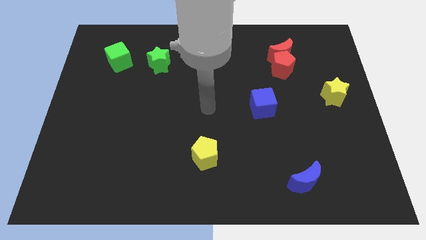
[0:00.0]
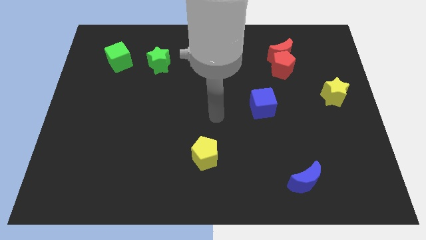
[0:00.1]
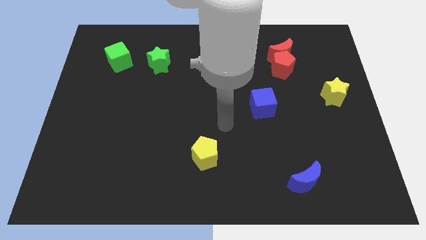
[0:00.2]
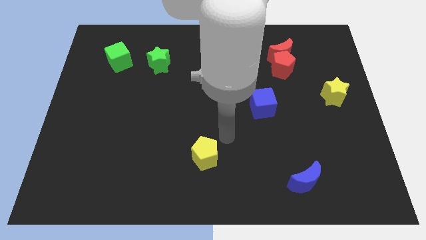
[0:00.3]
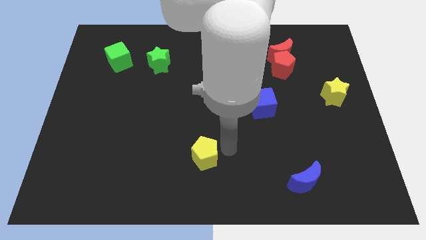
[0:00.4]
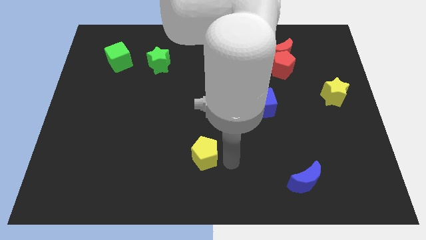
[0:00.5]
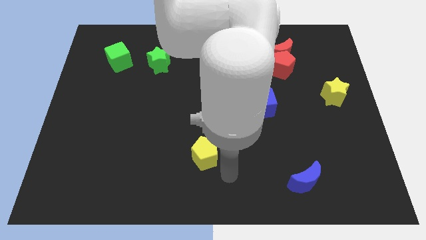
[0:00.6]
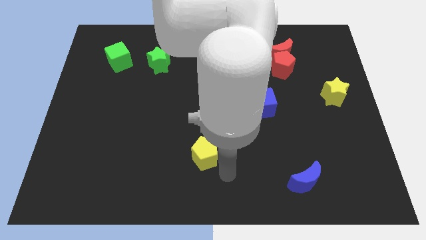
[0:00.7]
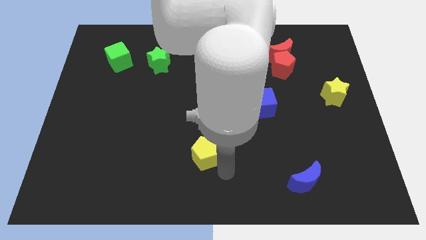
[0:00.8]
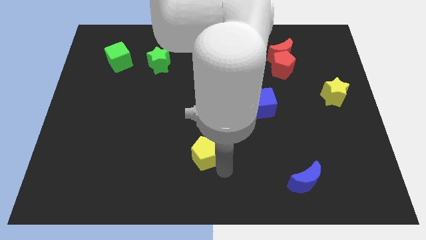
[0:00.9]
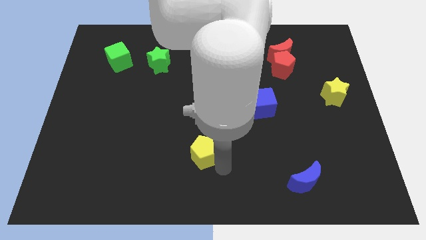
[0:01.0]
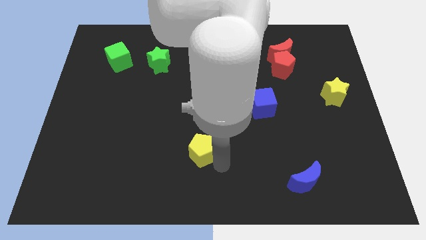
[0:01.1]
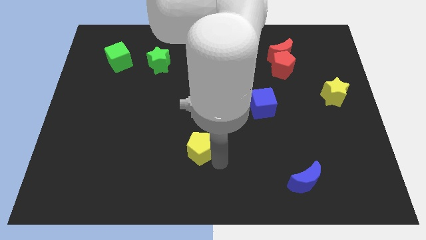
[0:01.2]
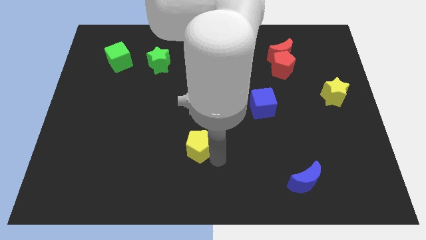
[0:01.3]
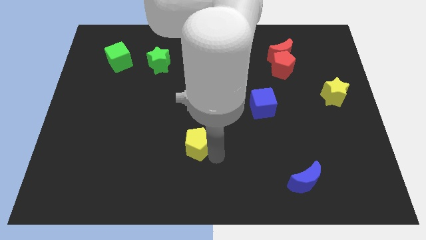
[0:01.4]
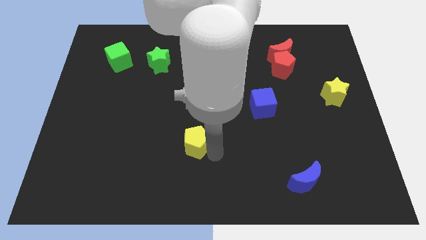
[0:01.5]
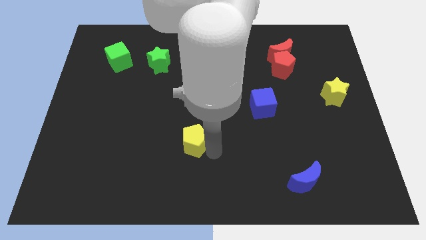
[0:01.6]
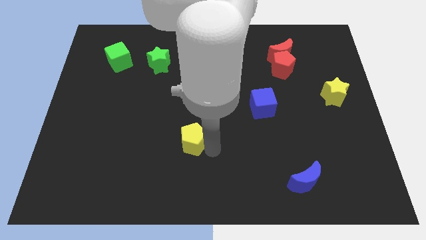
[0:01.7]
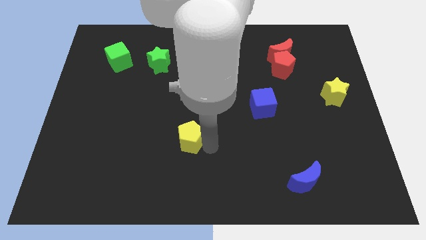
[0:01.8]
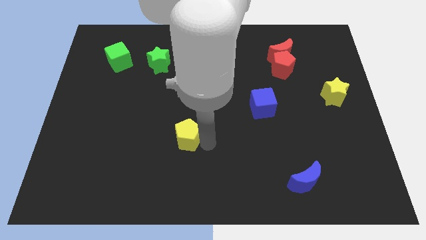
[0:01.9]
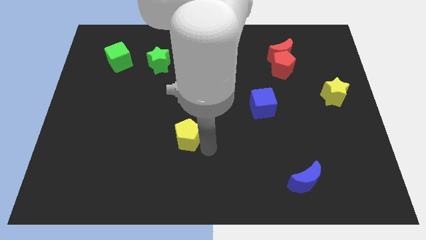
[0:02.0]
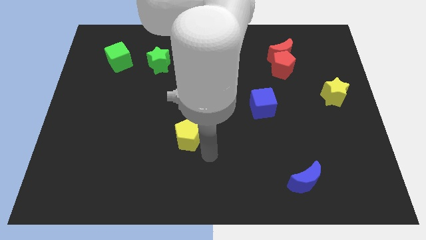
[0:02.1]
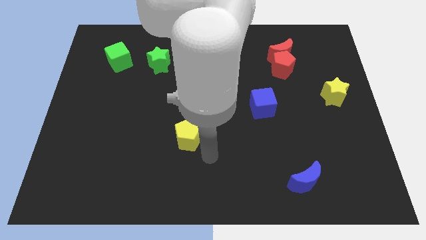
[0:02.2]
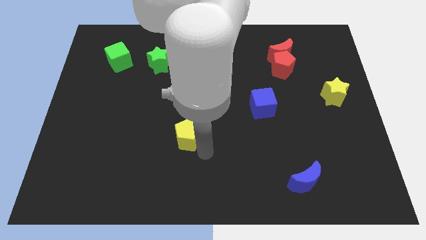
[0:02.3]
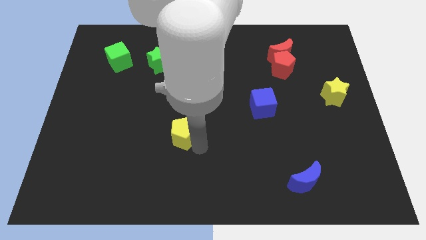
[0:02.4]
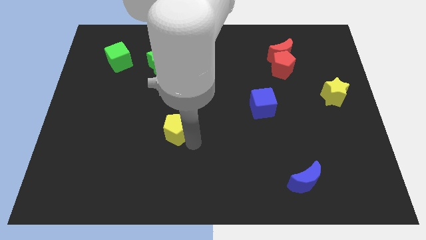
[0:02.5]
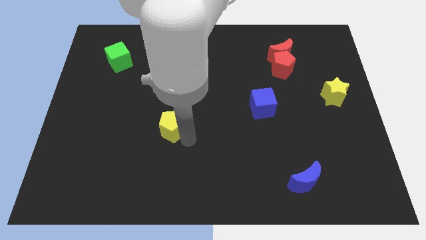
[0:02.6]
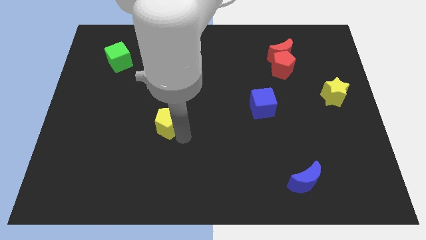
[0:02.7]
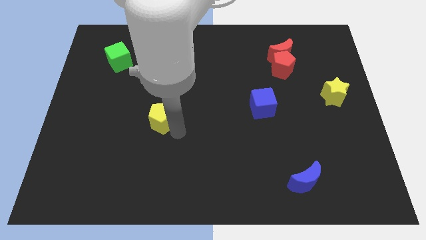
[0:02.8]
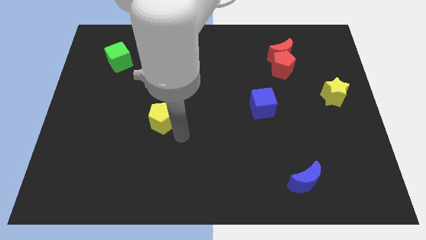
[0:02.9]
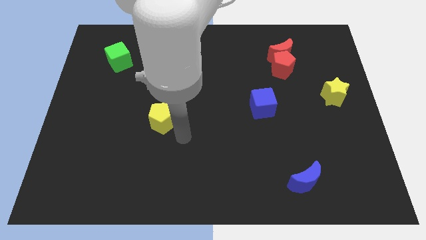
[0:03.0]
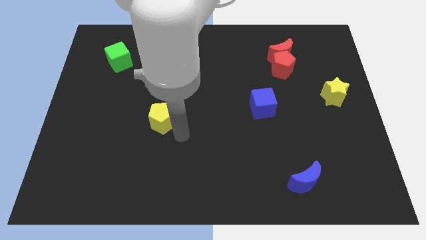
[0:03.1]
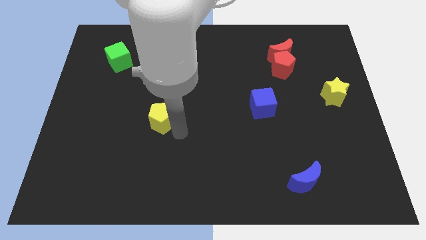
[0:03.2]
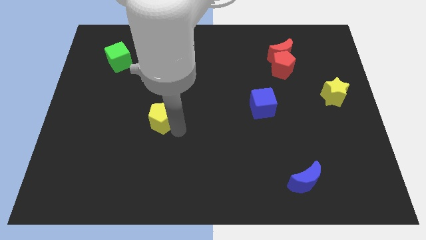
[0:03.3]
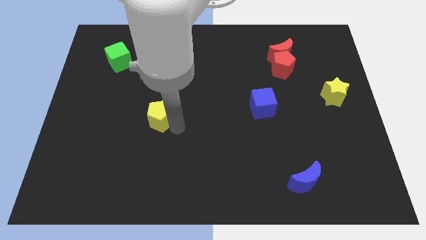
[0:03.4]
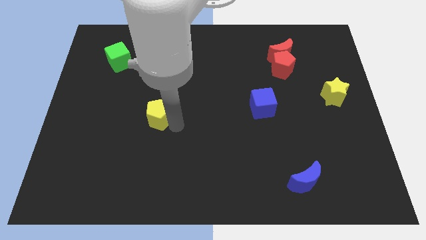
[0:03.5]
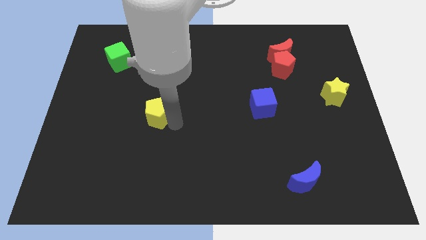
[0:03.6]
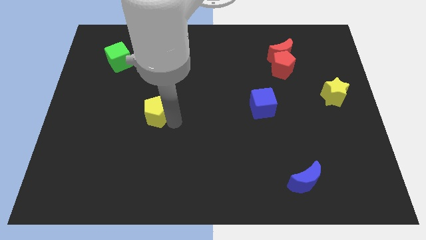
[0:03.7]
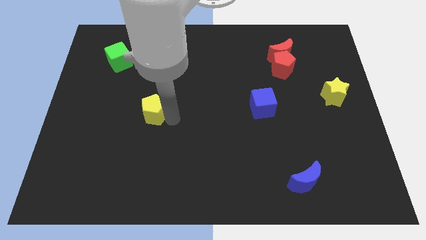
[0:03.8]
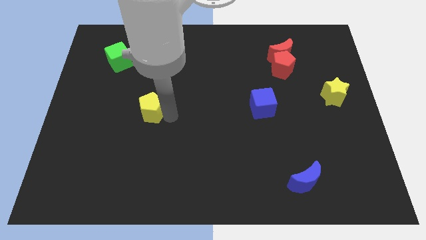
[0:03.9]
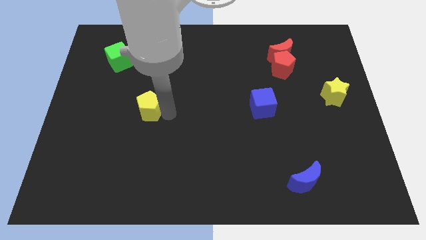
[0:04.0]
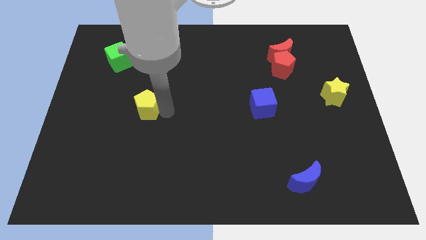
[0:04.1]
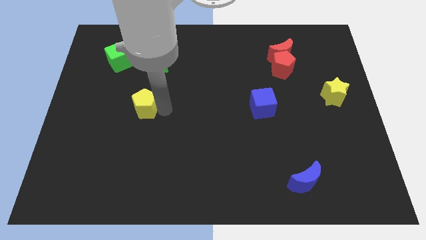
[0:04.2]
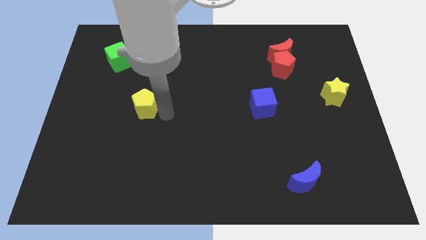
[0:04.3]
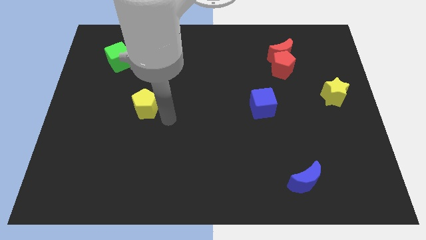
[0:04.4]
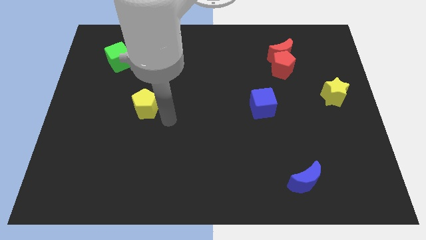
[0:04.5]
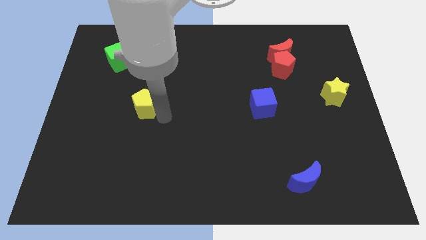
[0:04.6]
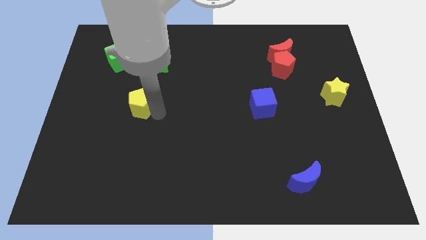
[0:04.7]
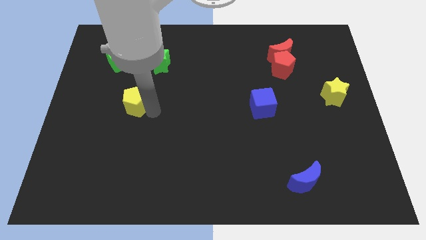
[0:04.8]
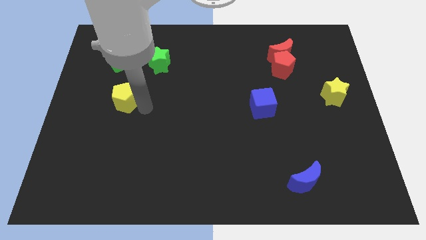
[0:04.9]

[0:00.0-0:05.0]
move the yellow pentagon below the green cube

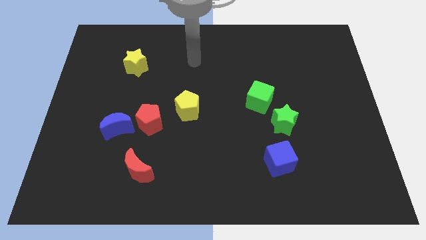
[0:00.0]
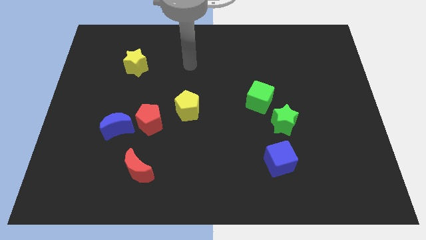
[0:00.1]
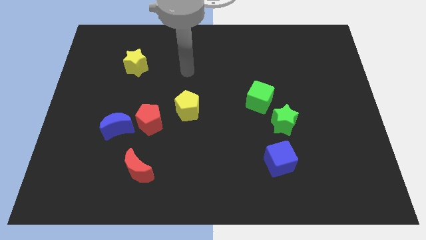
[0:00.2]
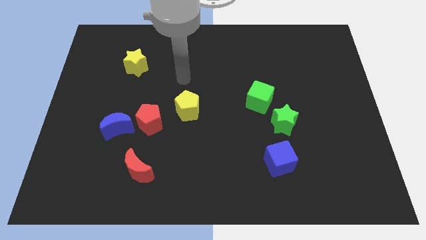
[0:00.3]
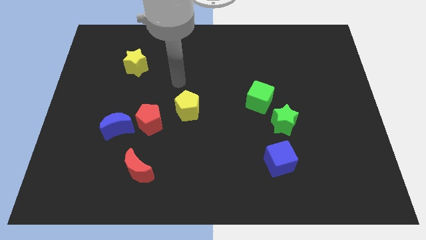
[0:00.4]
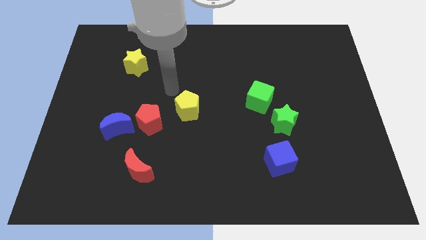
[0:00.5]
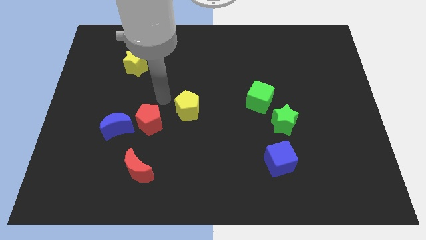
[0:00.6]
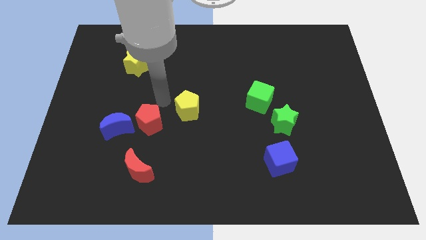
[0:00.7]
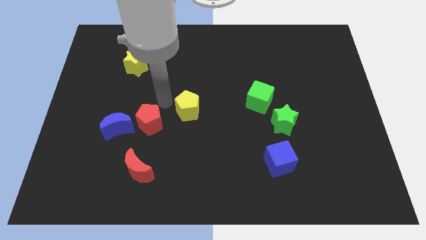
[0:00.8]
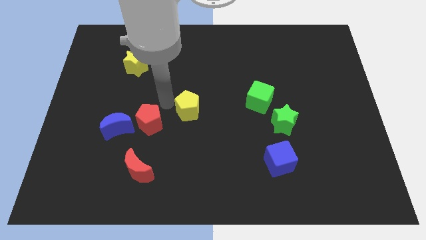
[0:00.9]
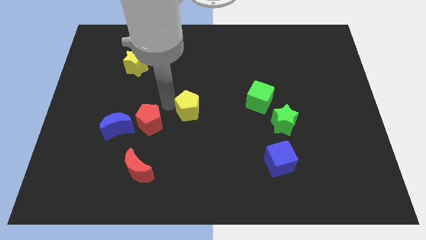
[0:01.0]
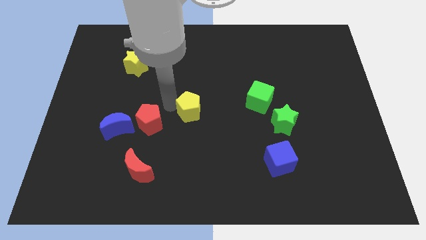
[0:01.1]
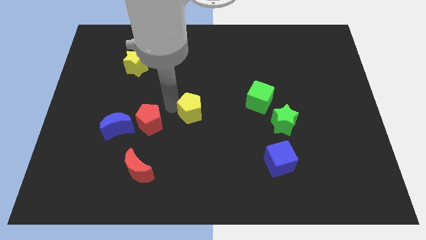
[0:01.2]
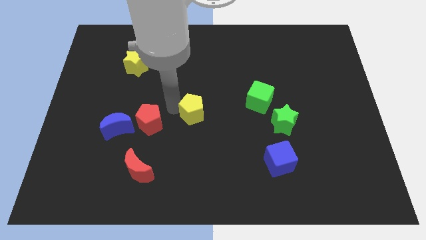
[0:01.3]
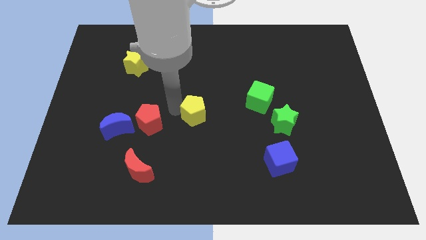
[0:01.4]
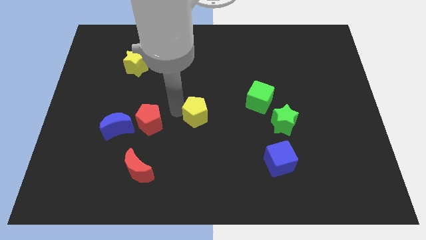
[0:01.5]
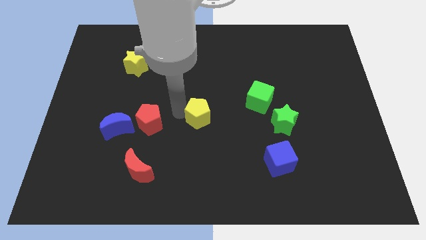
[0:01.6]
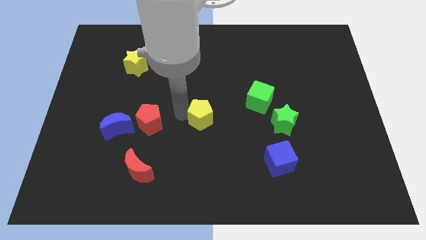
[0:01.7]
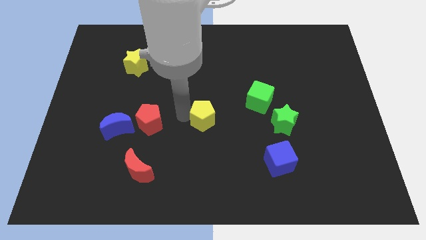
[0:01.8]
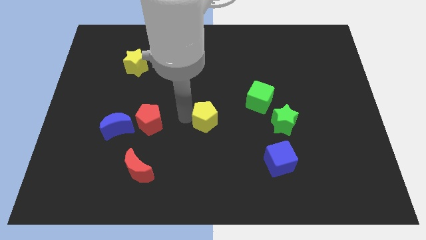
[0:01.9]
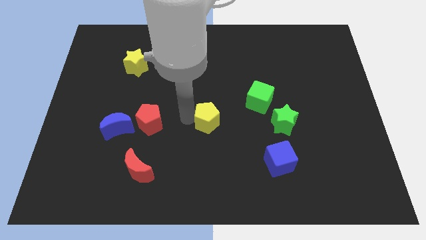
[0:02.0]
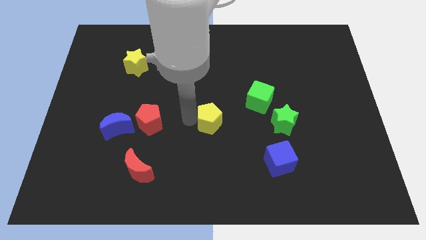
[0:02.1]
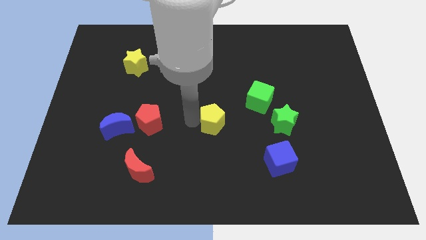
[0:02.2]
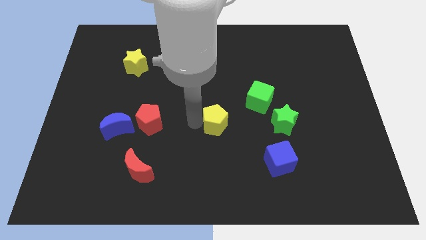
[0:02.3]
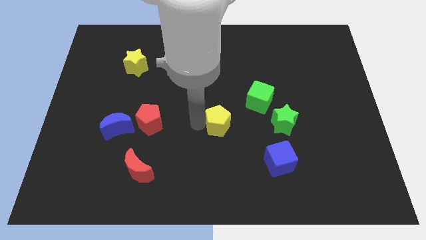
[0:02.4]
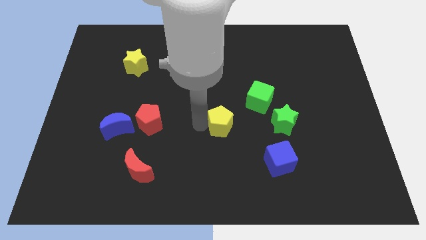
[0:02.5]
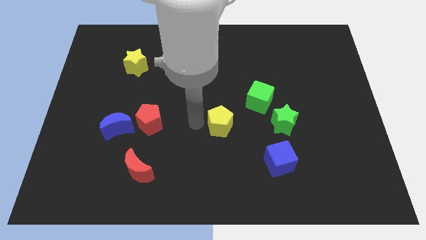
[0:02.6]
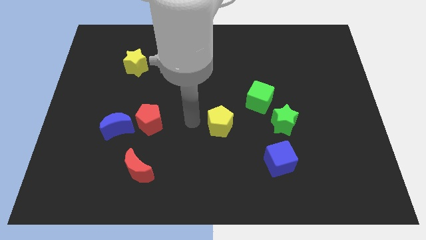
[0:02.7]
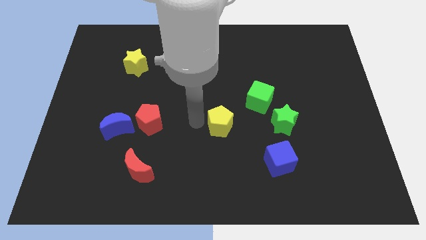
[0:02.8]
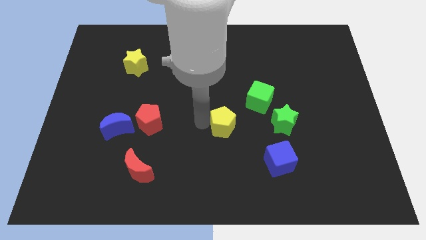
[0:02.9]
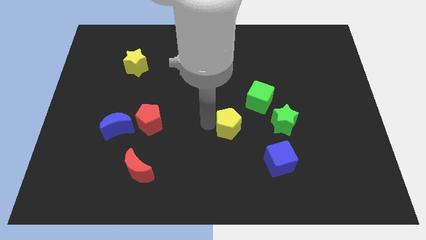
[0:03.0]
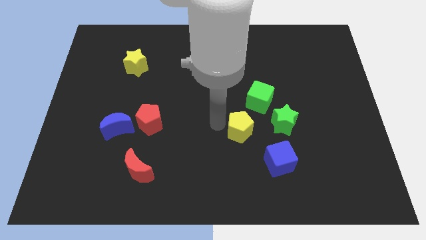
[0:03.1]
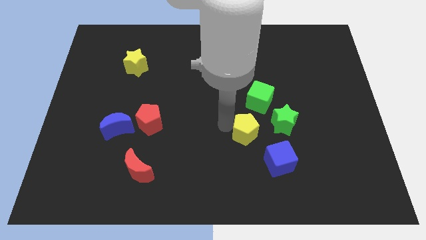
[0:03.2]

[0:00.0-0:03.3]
push the yellow pentagon to the bottom left side of the green star
